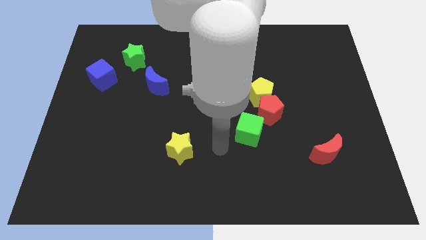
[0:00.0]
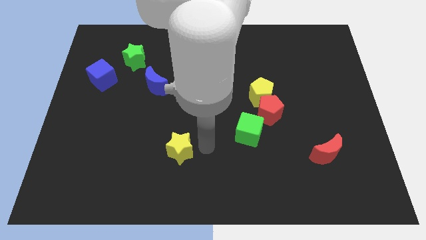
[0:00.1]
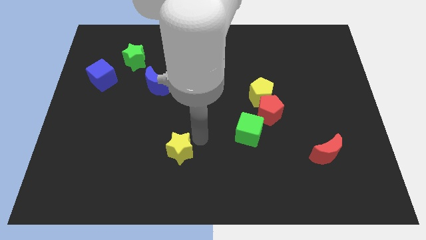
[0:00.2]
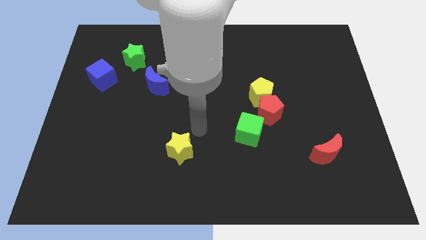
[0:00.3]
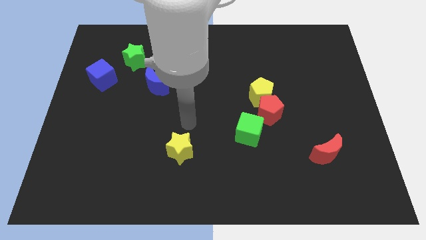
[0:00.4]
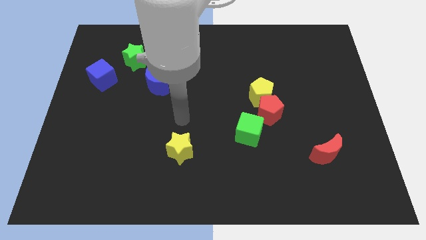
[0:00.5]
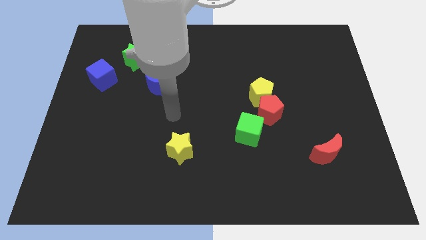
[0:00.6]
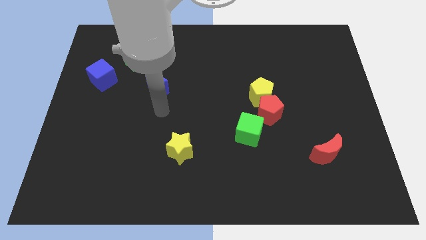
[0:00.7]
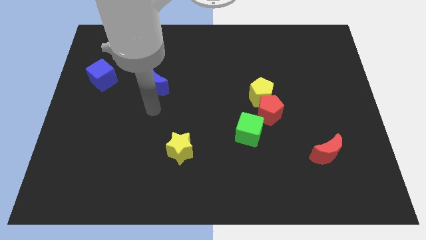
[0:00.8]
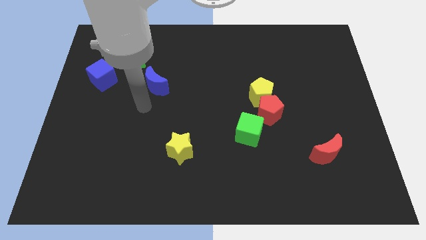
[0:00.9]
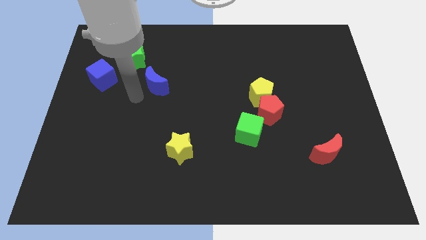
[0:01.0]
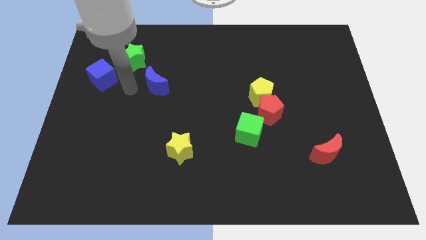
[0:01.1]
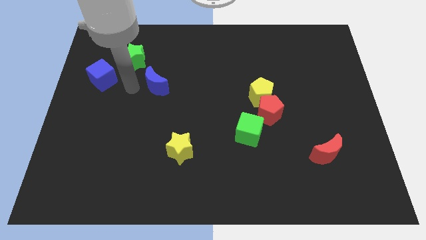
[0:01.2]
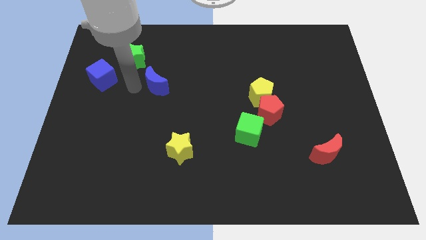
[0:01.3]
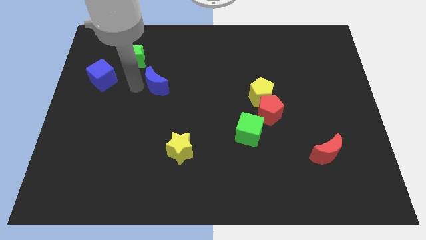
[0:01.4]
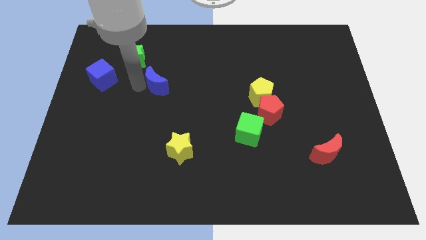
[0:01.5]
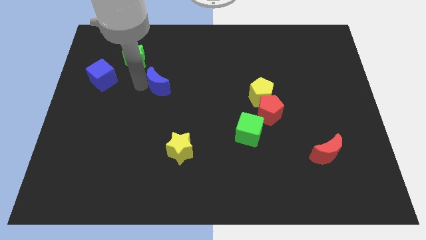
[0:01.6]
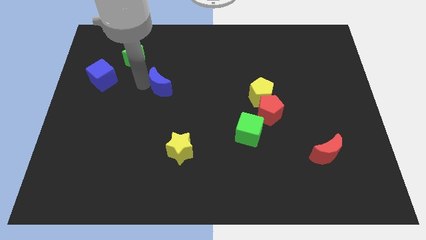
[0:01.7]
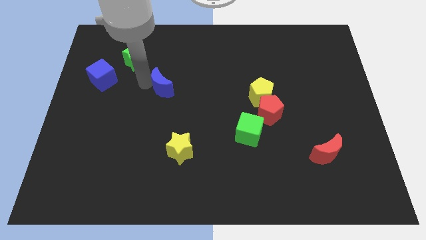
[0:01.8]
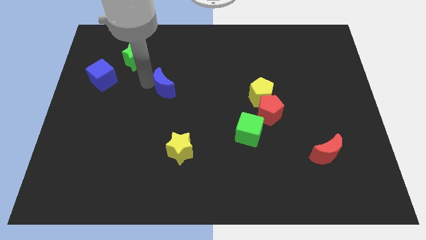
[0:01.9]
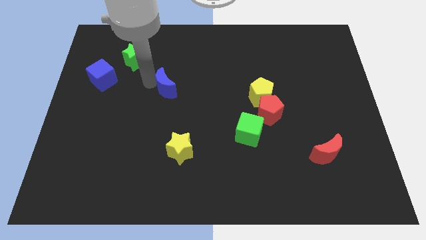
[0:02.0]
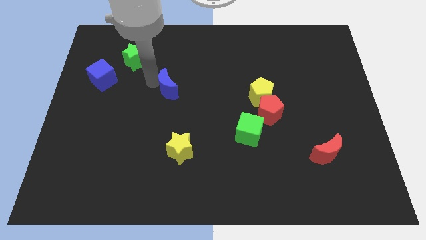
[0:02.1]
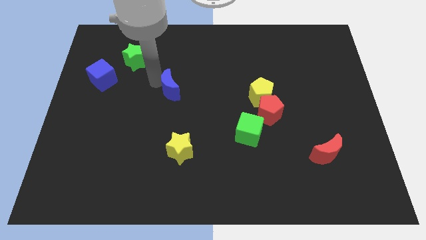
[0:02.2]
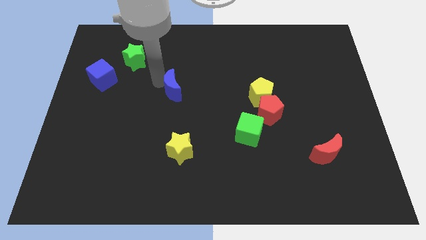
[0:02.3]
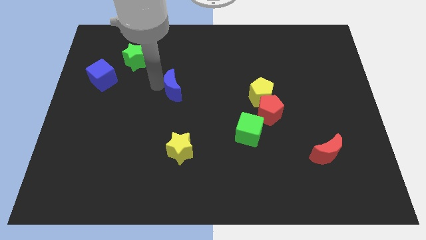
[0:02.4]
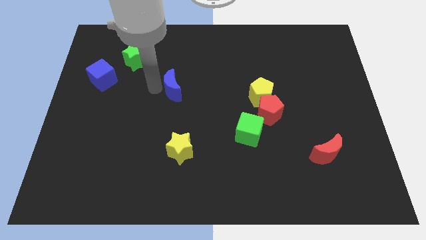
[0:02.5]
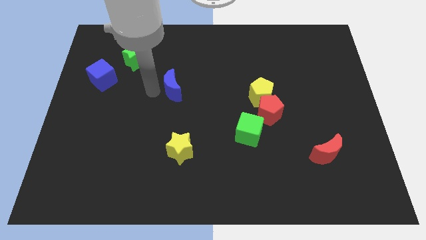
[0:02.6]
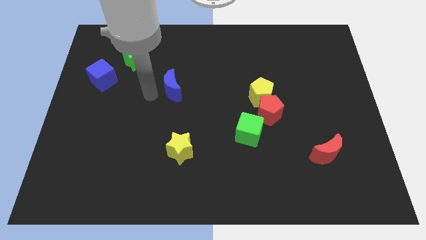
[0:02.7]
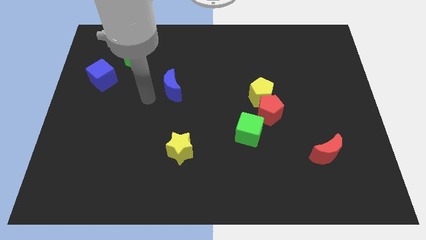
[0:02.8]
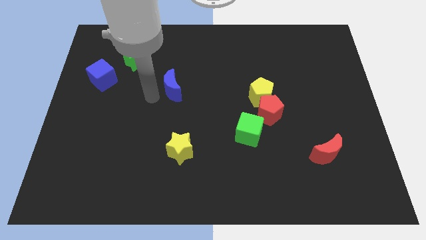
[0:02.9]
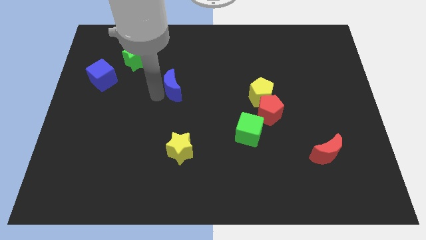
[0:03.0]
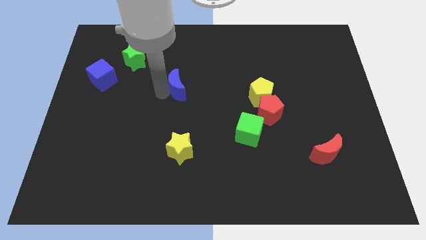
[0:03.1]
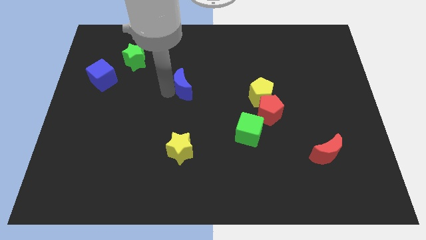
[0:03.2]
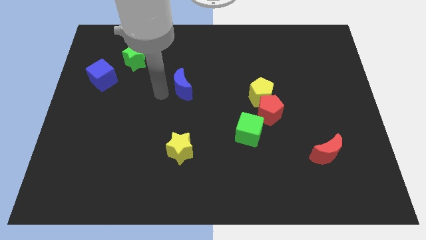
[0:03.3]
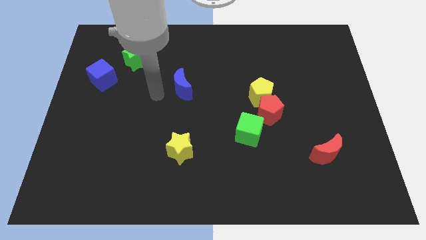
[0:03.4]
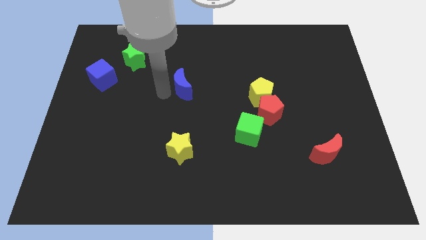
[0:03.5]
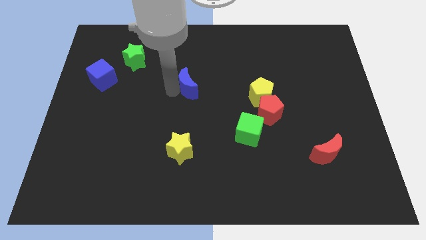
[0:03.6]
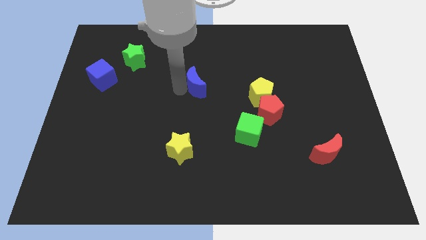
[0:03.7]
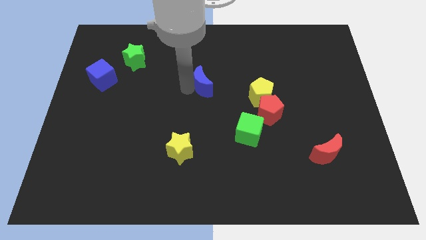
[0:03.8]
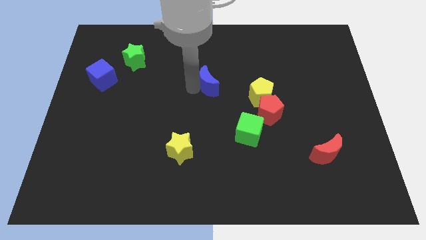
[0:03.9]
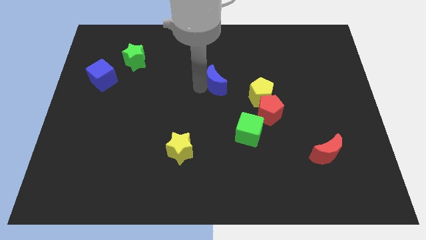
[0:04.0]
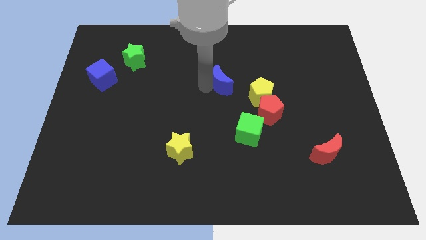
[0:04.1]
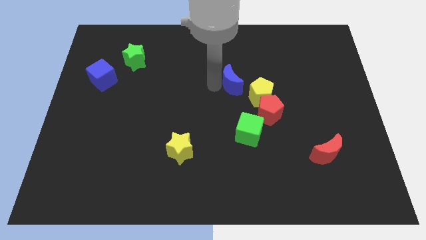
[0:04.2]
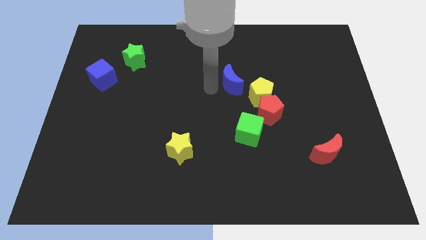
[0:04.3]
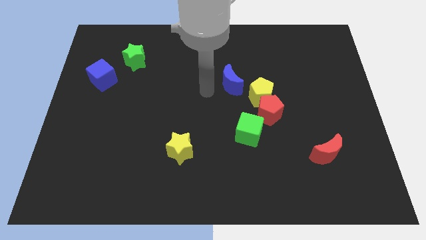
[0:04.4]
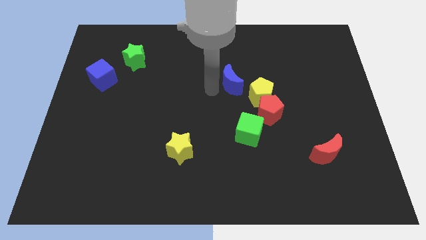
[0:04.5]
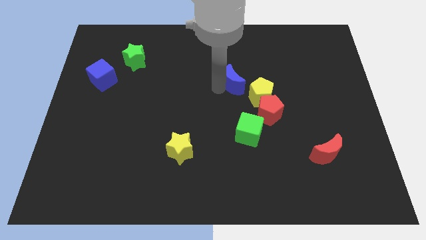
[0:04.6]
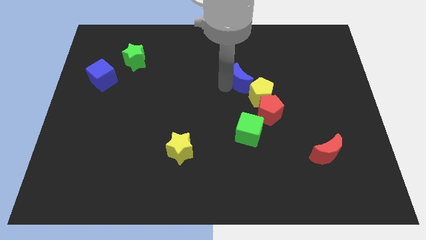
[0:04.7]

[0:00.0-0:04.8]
move the blue moon right

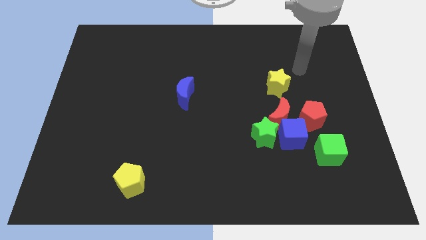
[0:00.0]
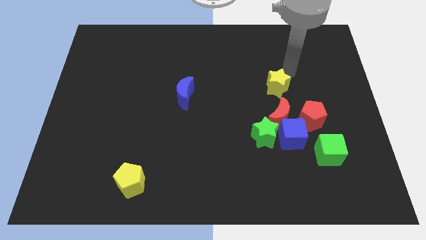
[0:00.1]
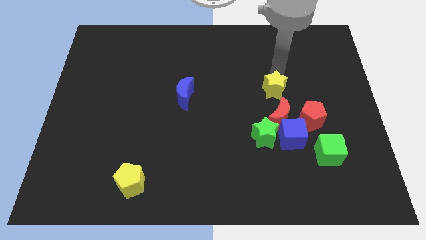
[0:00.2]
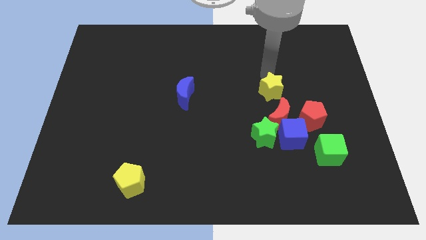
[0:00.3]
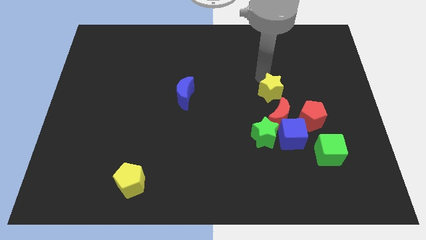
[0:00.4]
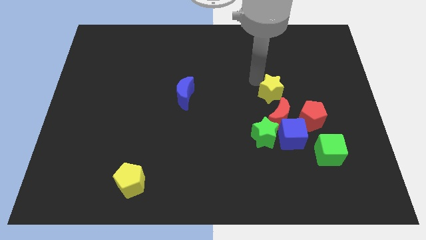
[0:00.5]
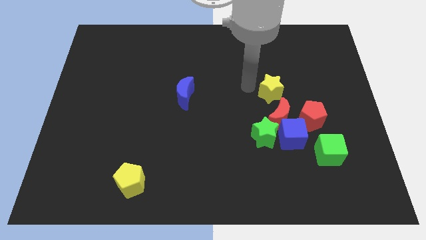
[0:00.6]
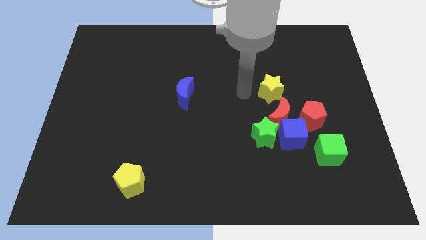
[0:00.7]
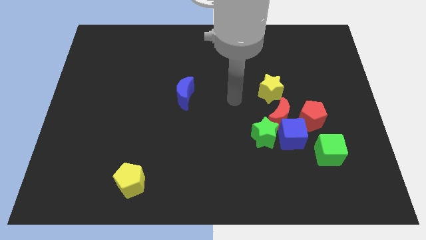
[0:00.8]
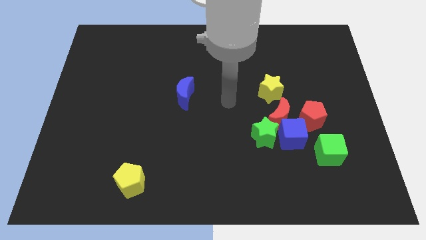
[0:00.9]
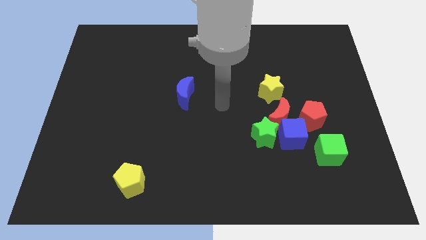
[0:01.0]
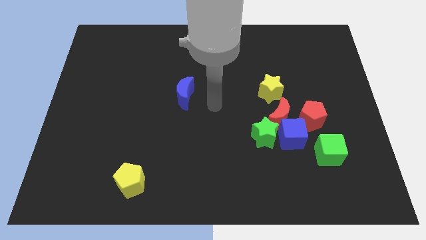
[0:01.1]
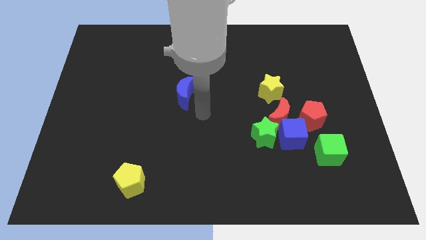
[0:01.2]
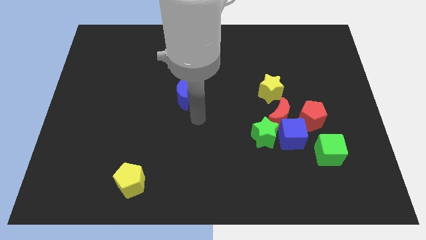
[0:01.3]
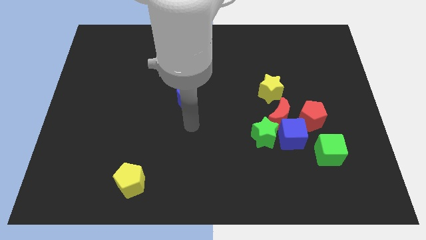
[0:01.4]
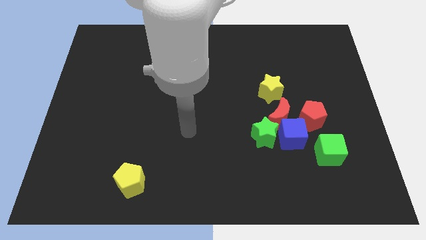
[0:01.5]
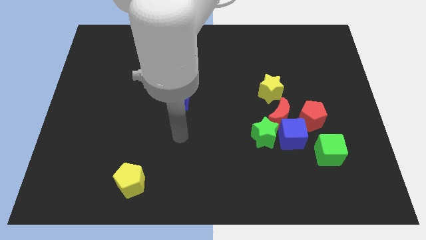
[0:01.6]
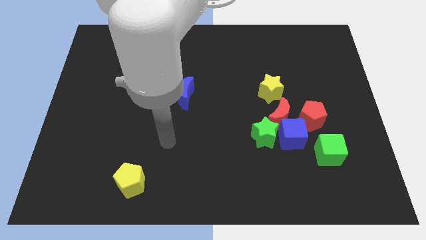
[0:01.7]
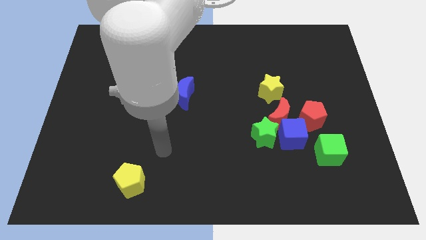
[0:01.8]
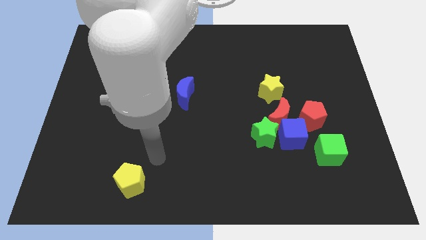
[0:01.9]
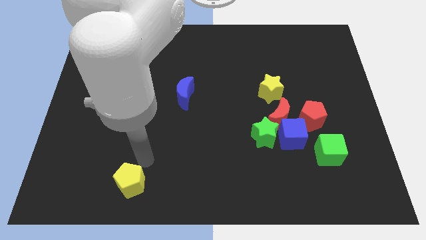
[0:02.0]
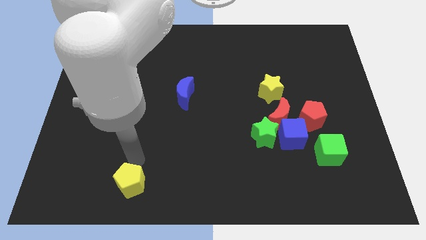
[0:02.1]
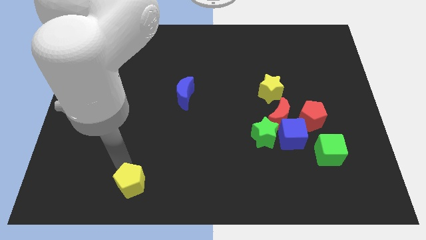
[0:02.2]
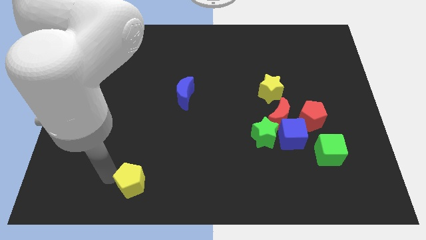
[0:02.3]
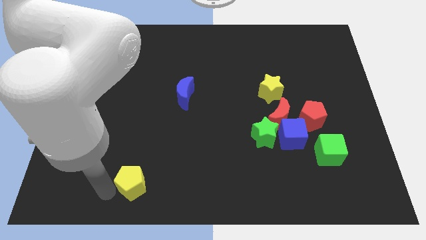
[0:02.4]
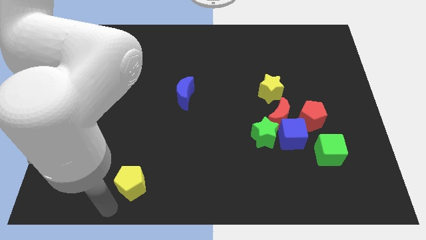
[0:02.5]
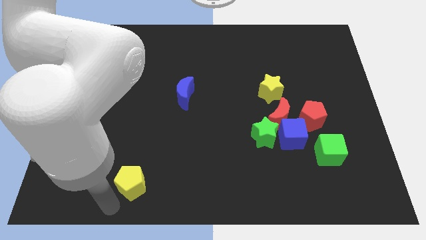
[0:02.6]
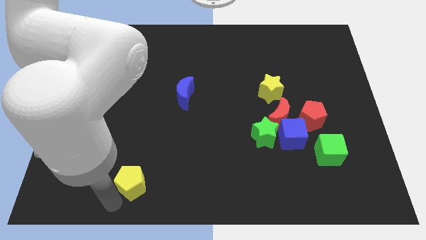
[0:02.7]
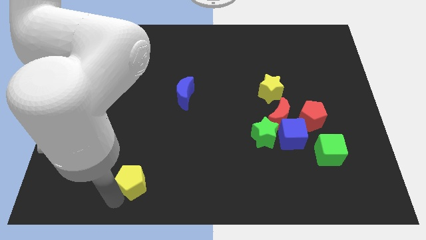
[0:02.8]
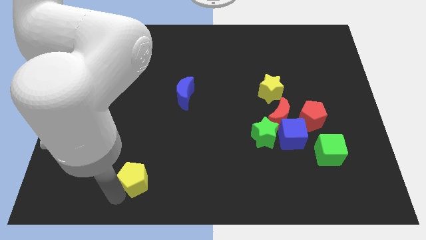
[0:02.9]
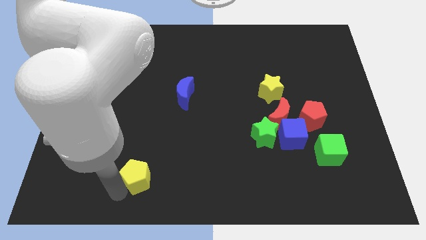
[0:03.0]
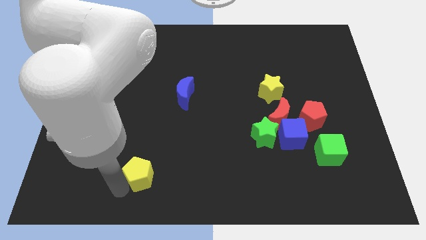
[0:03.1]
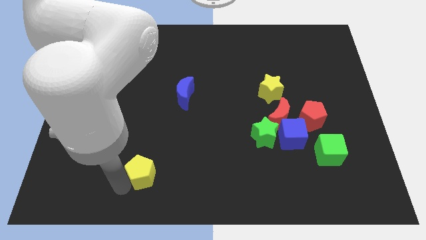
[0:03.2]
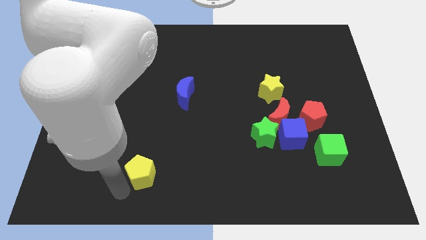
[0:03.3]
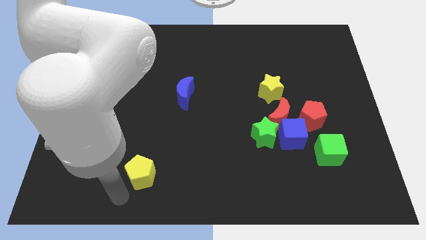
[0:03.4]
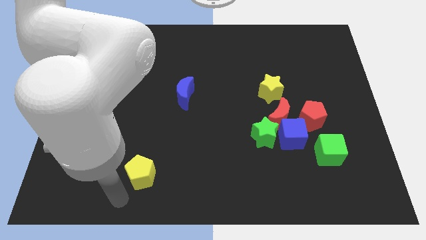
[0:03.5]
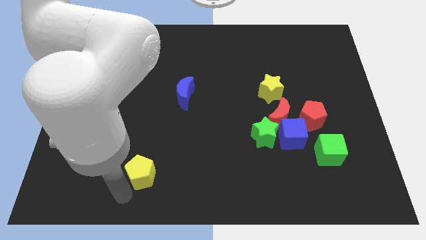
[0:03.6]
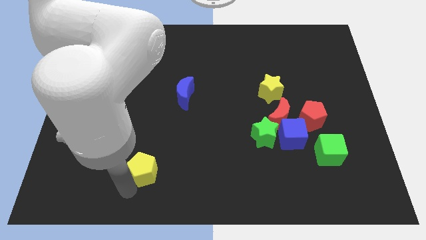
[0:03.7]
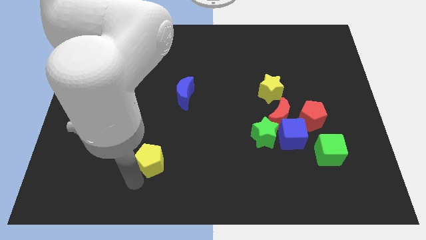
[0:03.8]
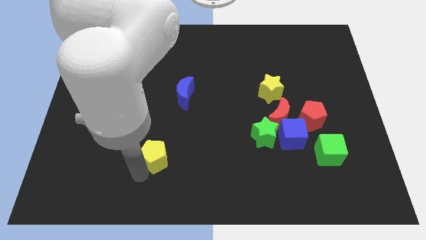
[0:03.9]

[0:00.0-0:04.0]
push the yellow pentagon slightly diagonally upwards and right
